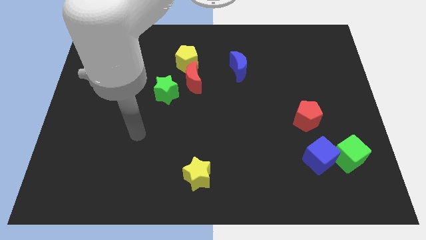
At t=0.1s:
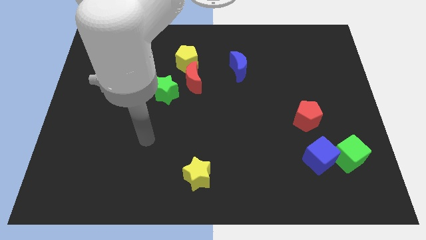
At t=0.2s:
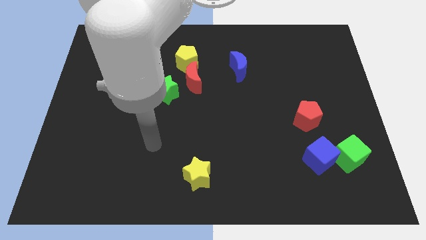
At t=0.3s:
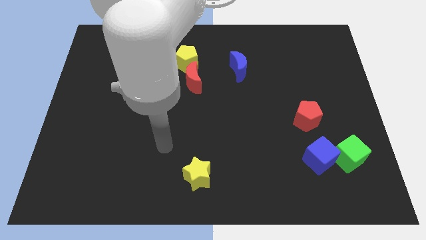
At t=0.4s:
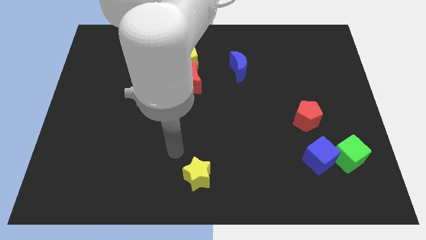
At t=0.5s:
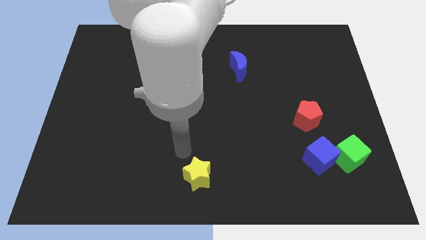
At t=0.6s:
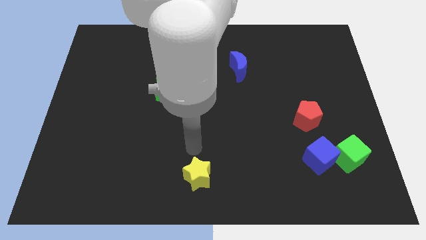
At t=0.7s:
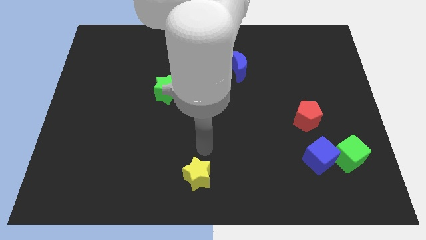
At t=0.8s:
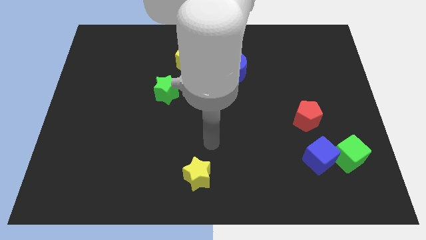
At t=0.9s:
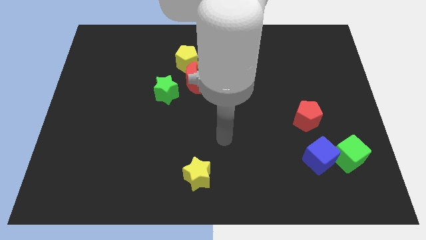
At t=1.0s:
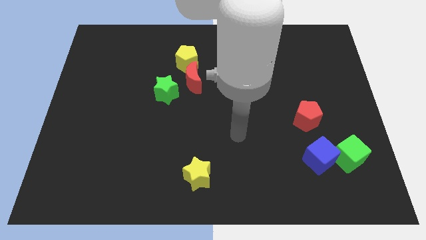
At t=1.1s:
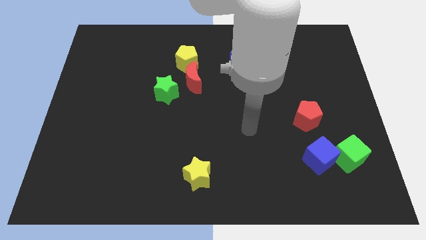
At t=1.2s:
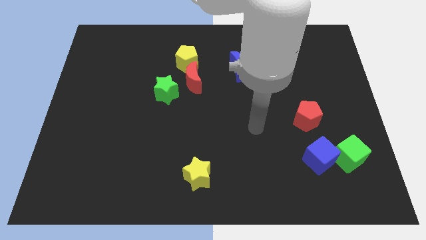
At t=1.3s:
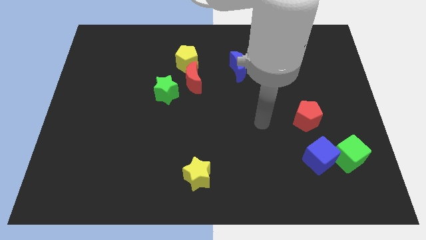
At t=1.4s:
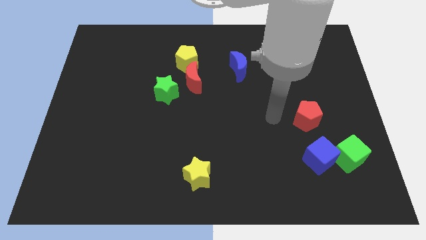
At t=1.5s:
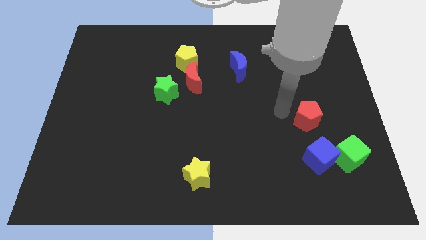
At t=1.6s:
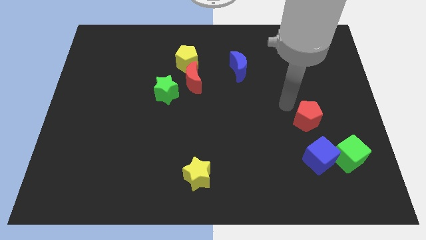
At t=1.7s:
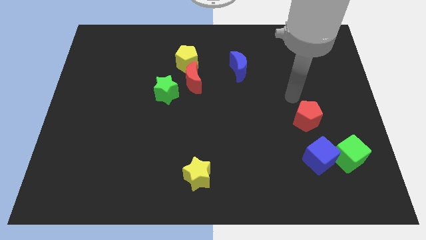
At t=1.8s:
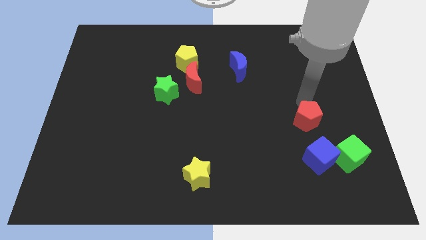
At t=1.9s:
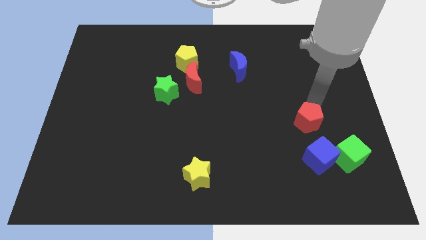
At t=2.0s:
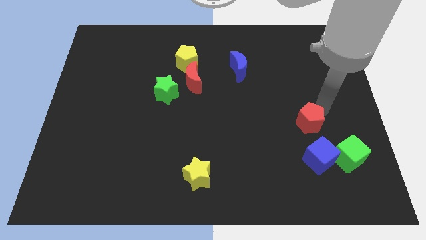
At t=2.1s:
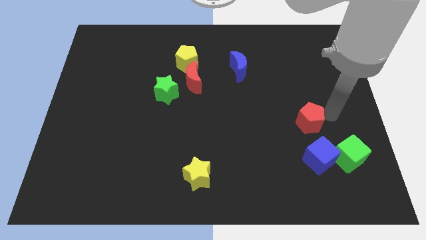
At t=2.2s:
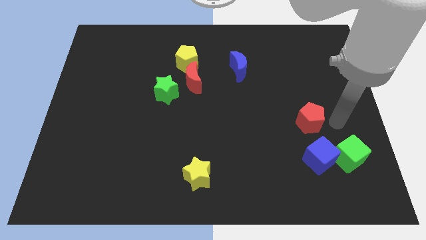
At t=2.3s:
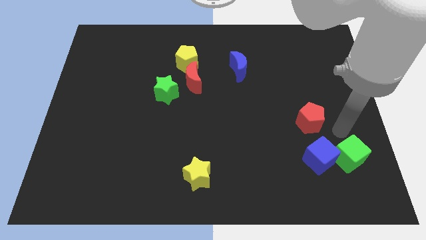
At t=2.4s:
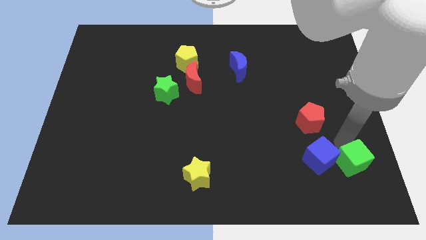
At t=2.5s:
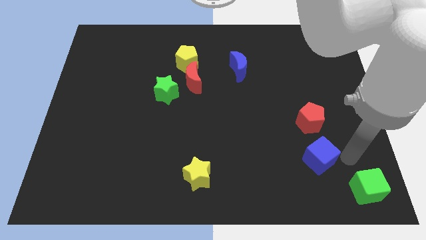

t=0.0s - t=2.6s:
separate the blue cube from the green cube

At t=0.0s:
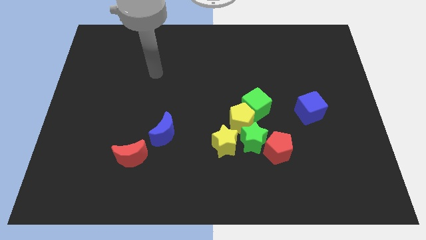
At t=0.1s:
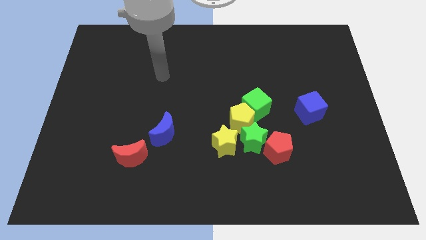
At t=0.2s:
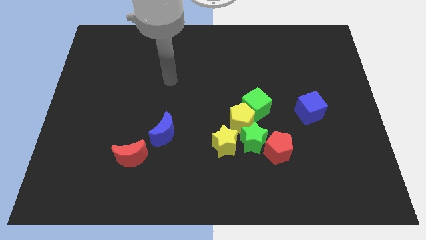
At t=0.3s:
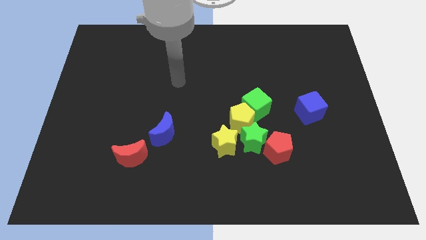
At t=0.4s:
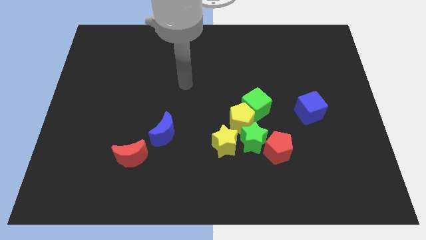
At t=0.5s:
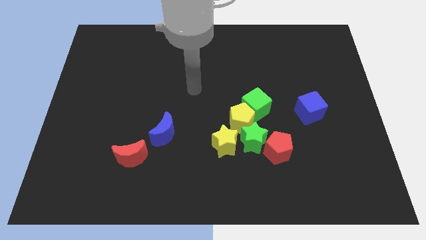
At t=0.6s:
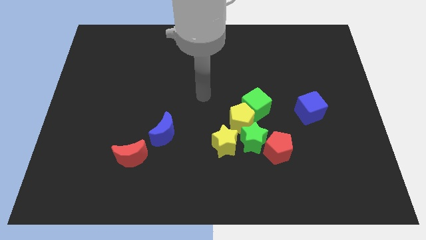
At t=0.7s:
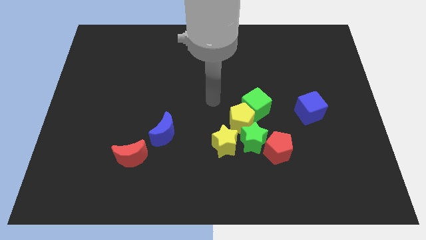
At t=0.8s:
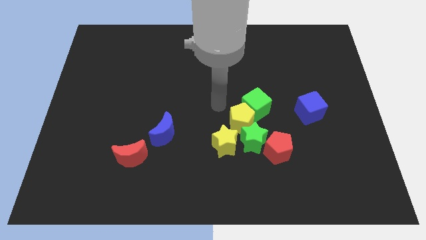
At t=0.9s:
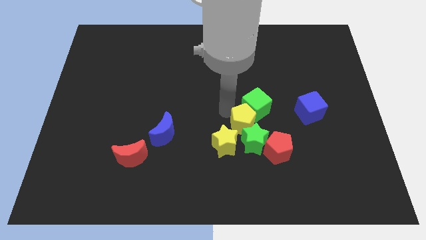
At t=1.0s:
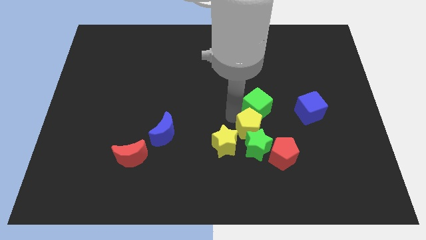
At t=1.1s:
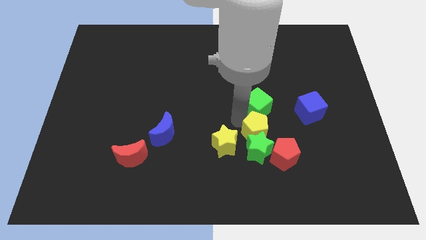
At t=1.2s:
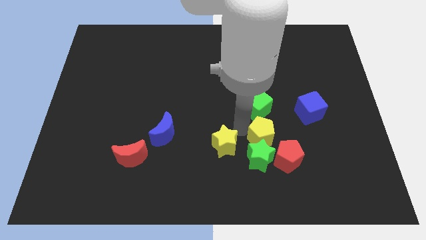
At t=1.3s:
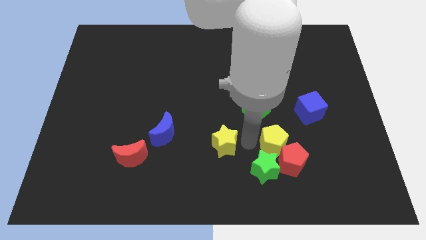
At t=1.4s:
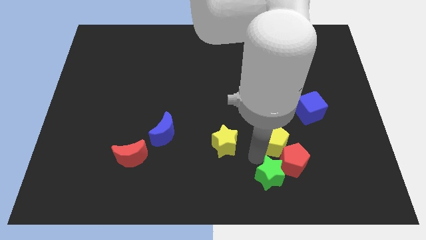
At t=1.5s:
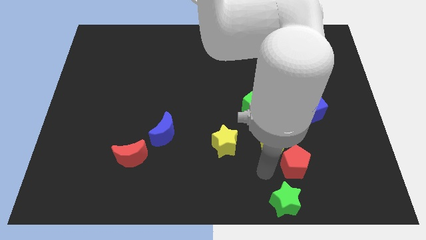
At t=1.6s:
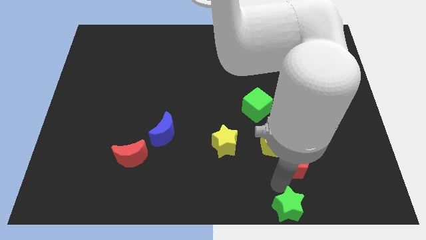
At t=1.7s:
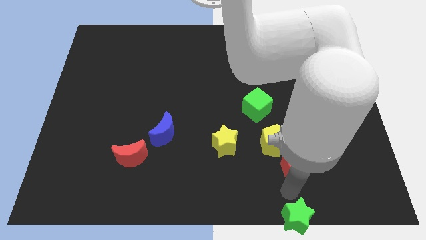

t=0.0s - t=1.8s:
move the red pentagon away from the green star

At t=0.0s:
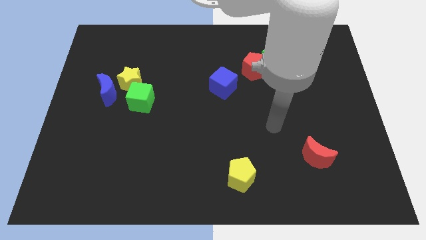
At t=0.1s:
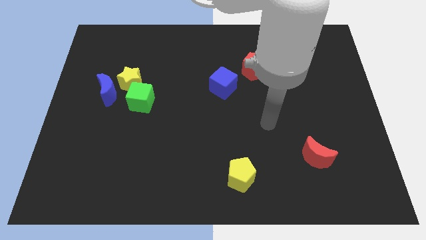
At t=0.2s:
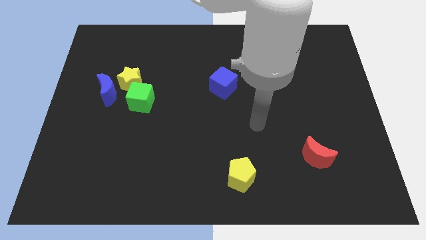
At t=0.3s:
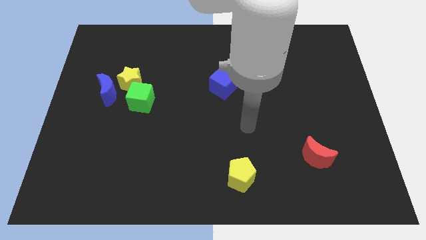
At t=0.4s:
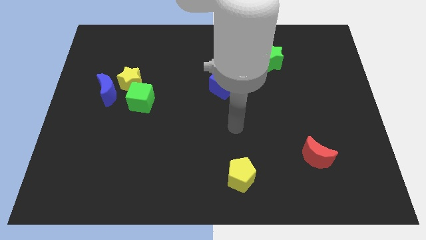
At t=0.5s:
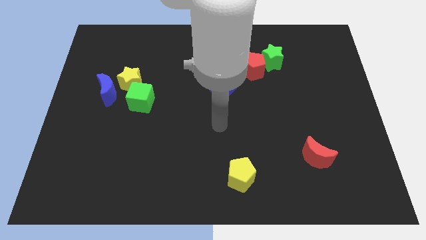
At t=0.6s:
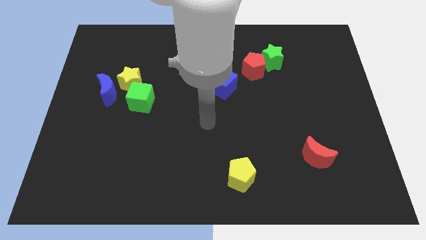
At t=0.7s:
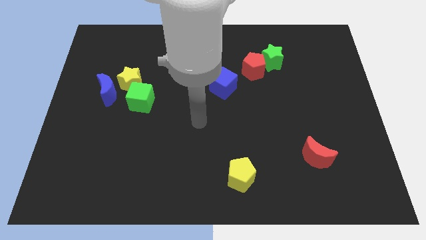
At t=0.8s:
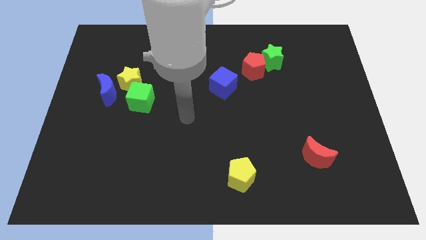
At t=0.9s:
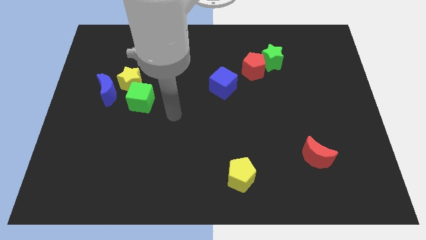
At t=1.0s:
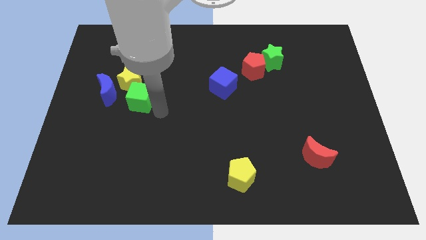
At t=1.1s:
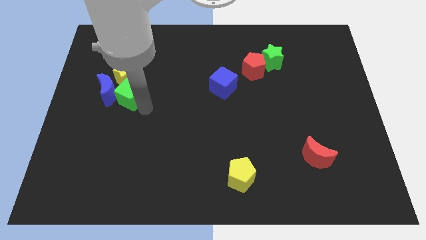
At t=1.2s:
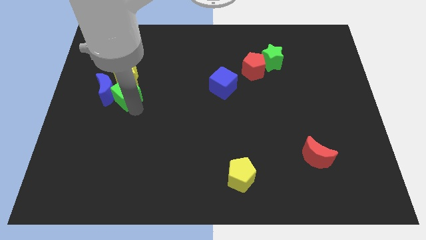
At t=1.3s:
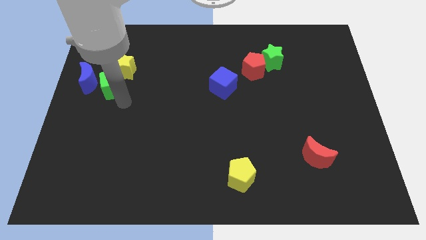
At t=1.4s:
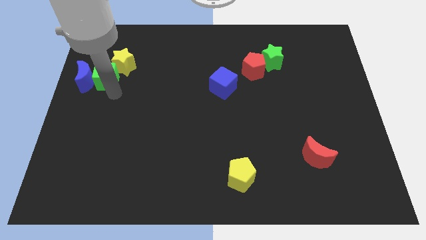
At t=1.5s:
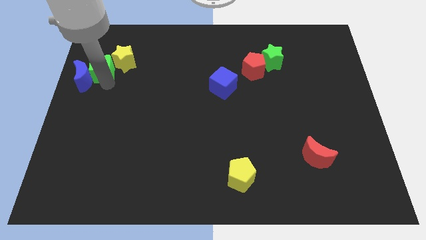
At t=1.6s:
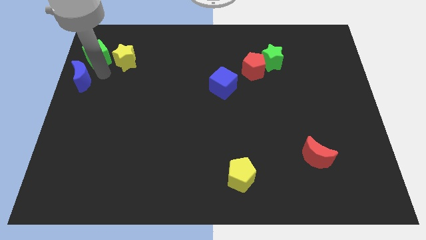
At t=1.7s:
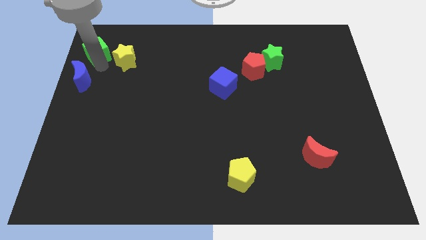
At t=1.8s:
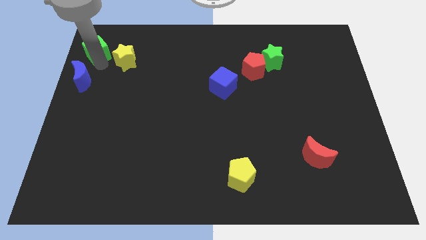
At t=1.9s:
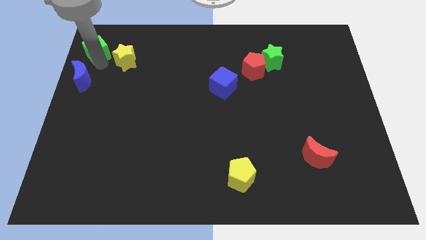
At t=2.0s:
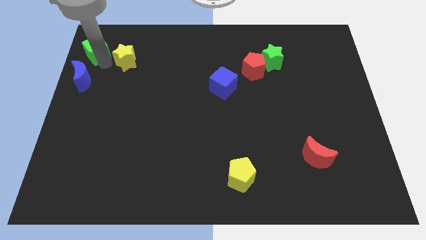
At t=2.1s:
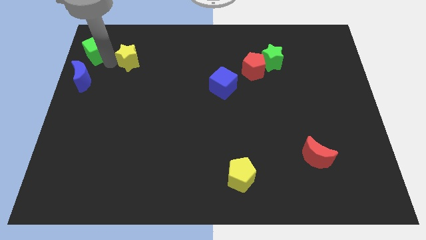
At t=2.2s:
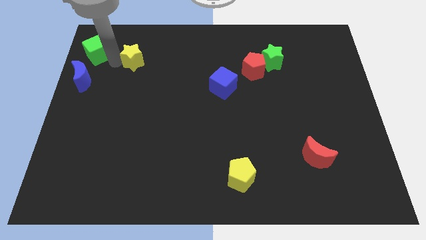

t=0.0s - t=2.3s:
separate the yellow star from the blue moon and green cube

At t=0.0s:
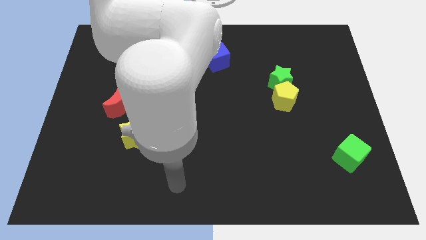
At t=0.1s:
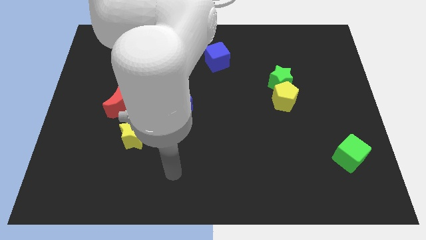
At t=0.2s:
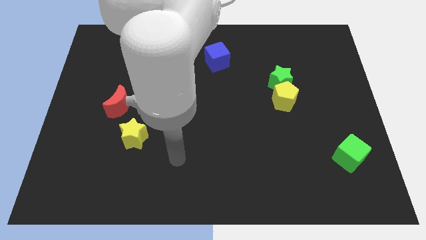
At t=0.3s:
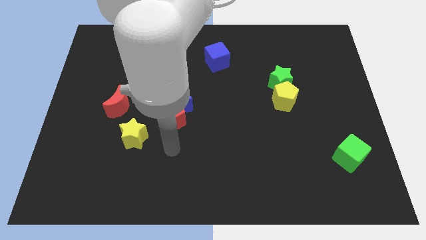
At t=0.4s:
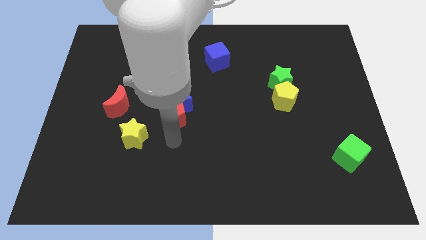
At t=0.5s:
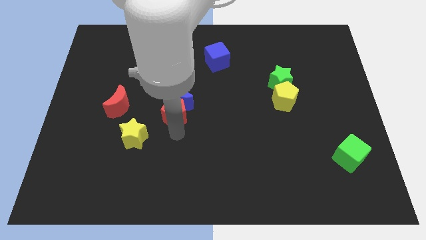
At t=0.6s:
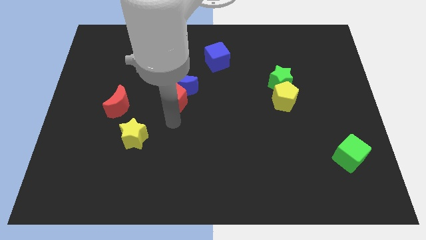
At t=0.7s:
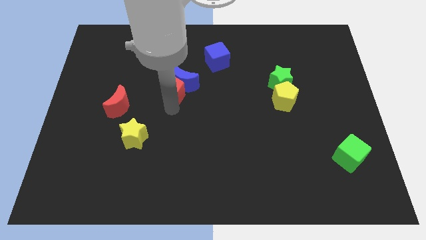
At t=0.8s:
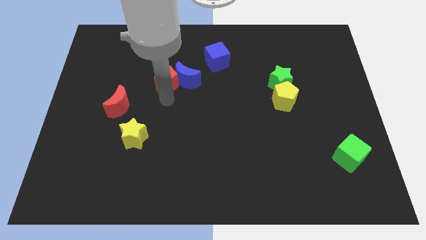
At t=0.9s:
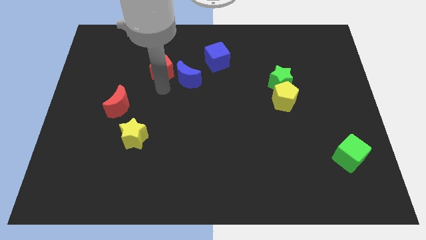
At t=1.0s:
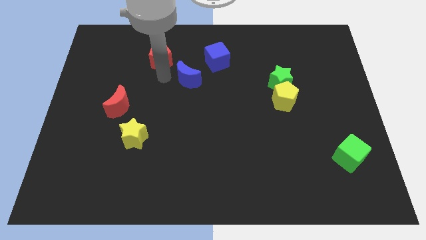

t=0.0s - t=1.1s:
move the blue moon away from the red pentagon

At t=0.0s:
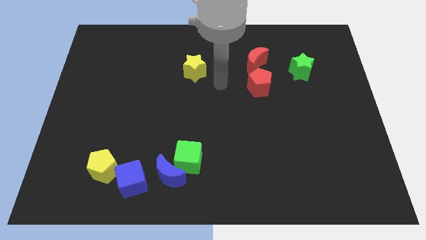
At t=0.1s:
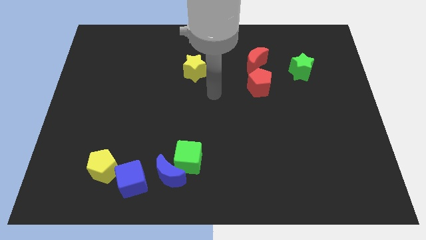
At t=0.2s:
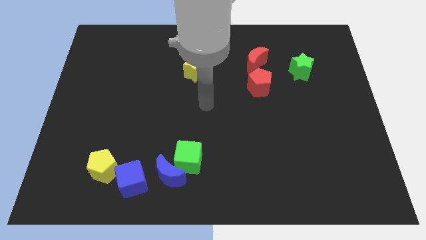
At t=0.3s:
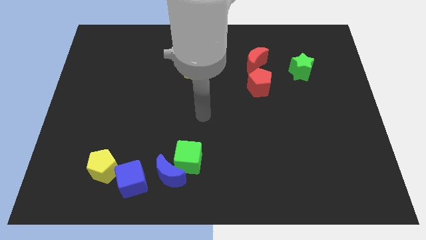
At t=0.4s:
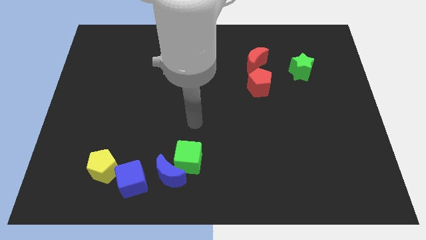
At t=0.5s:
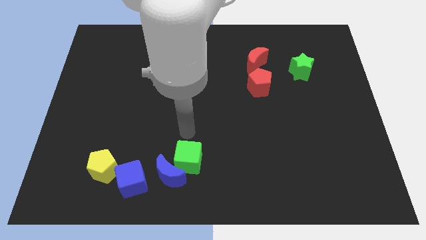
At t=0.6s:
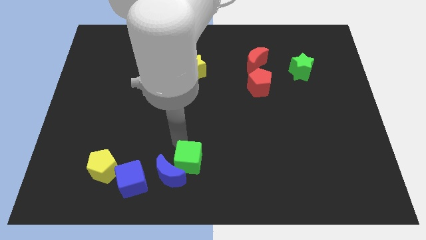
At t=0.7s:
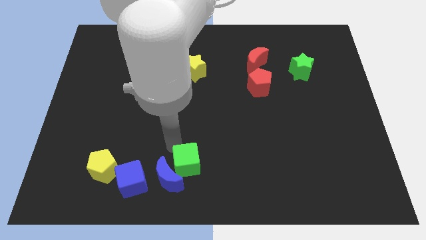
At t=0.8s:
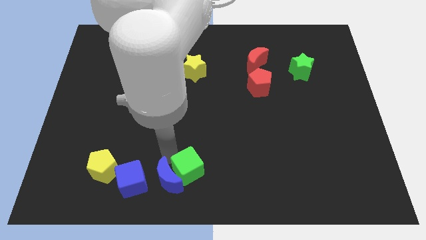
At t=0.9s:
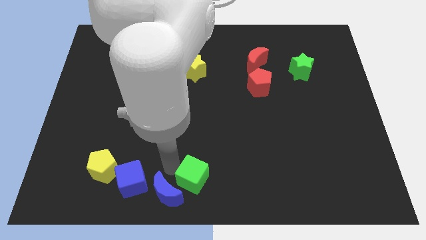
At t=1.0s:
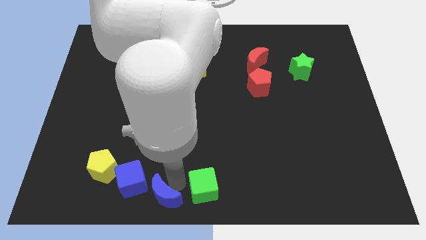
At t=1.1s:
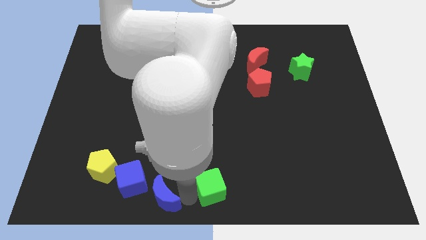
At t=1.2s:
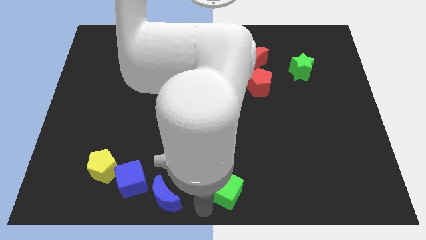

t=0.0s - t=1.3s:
pull the green cube apart from the blue moon
